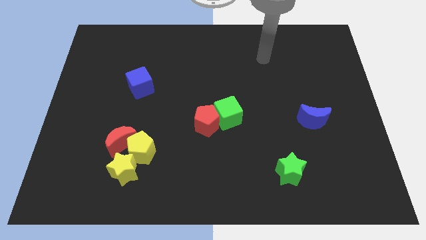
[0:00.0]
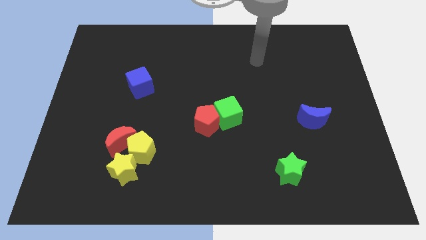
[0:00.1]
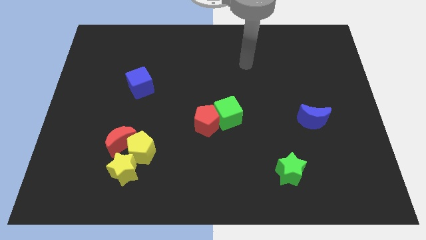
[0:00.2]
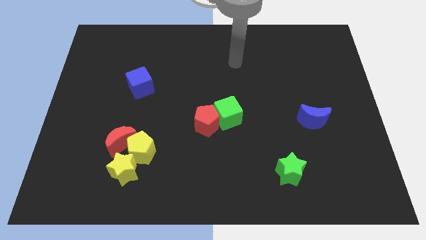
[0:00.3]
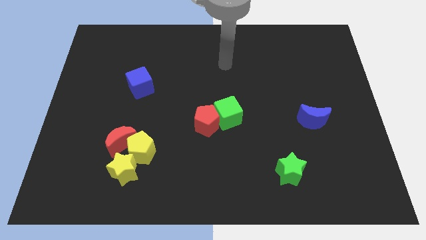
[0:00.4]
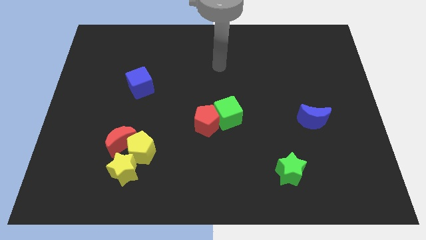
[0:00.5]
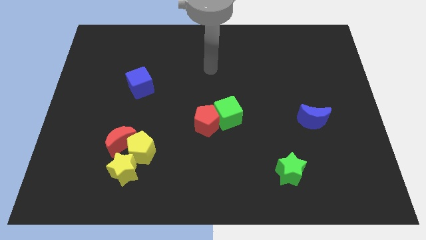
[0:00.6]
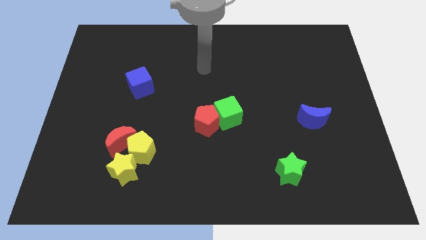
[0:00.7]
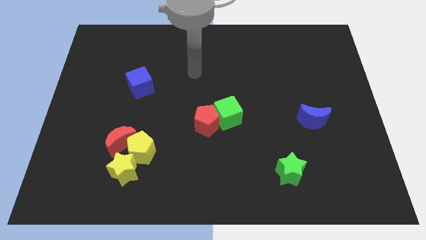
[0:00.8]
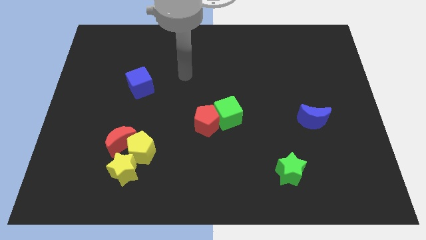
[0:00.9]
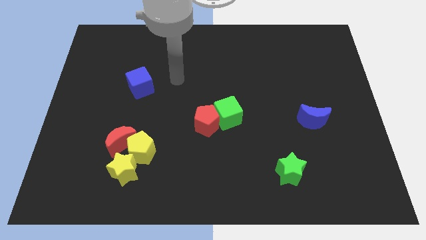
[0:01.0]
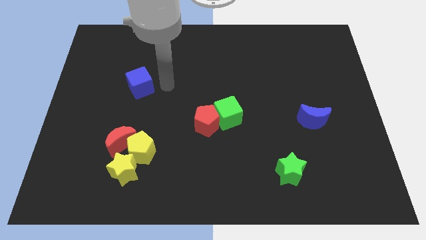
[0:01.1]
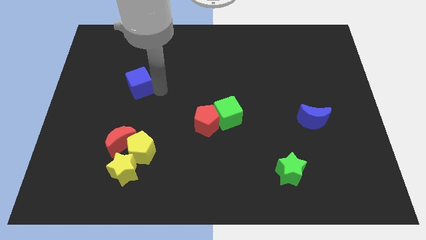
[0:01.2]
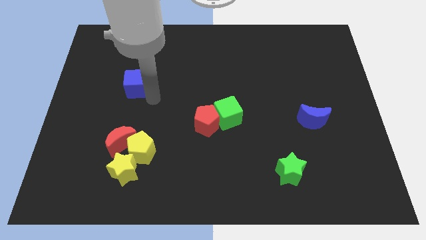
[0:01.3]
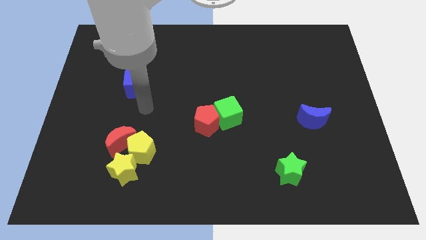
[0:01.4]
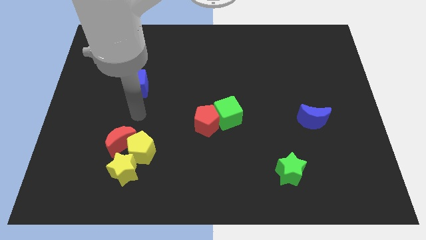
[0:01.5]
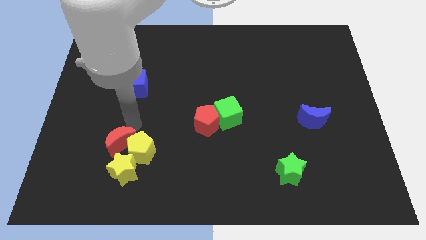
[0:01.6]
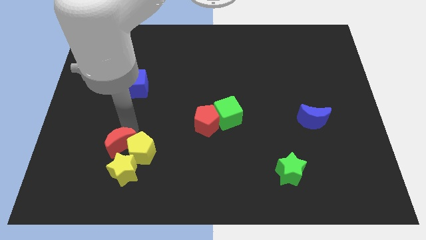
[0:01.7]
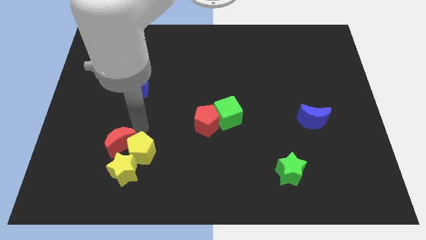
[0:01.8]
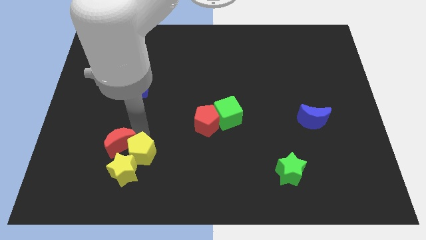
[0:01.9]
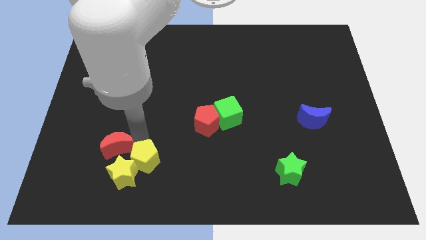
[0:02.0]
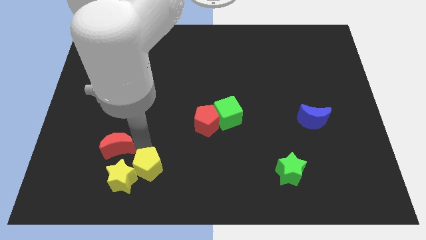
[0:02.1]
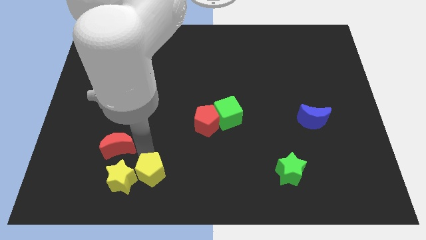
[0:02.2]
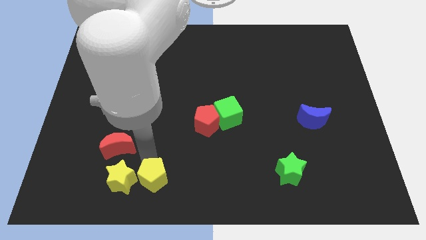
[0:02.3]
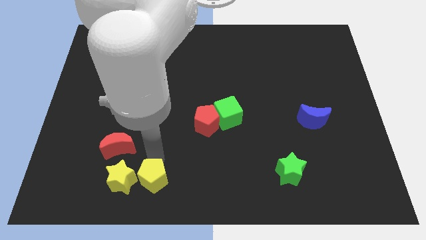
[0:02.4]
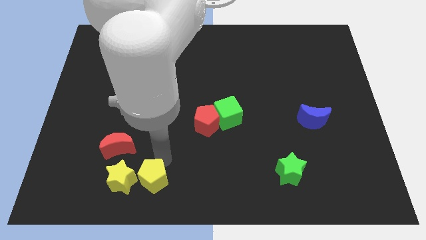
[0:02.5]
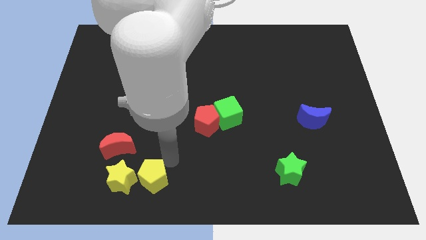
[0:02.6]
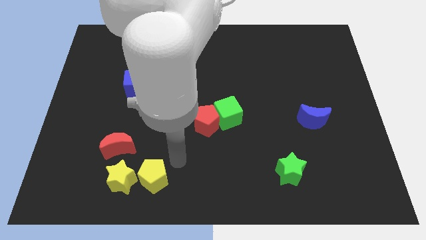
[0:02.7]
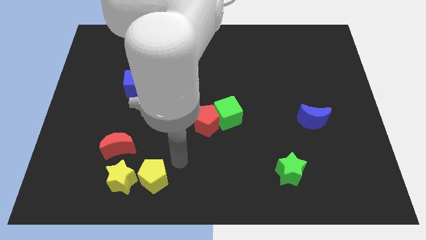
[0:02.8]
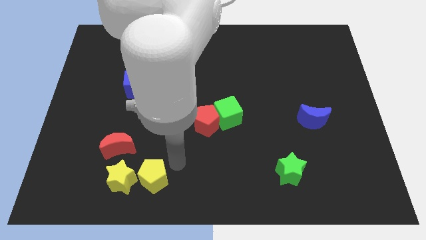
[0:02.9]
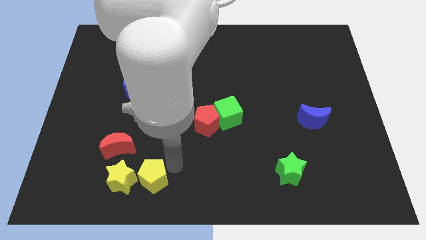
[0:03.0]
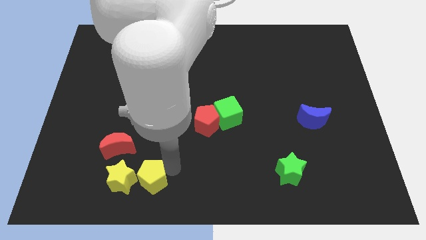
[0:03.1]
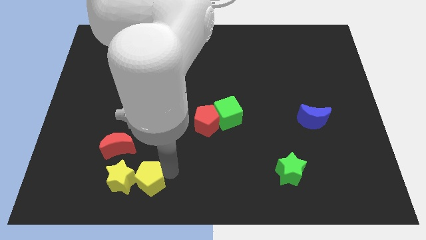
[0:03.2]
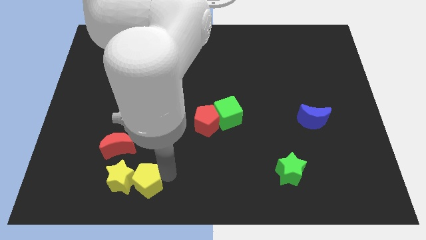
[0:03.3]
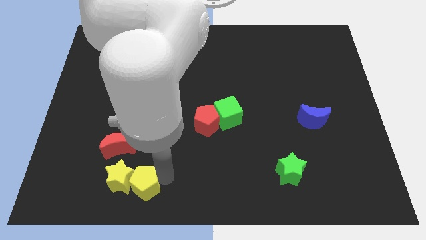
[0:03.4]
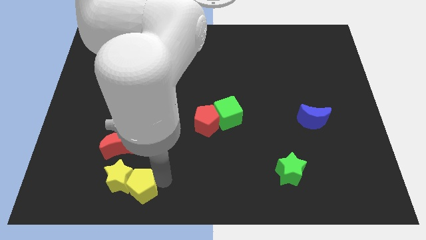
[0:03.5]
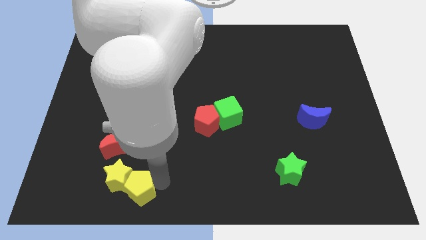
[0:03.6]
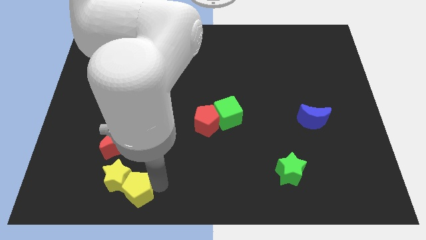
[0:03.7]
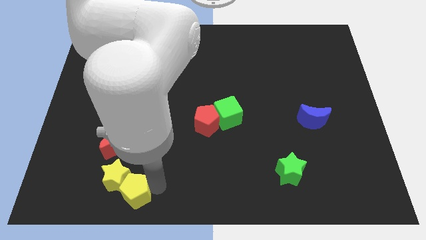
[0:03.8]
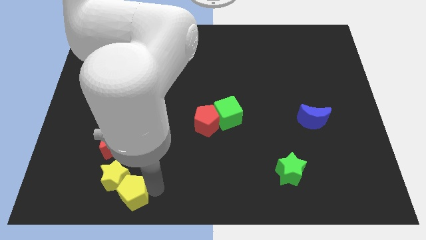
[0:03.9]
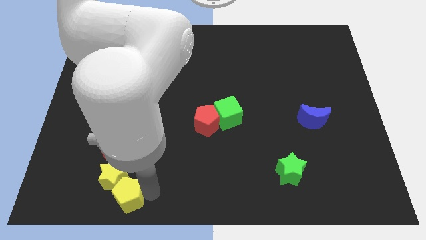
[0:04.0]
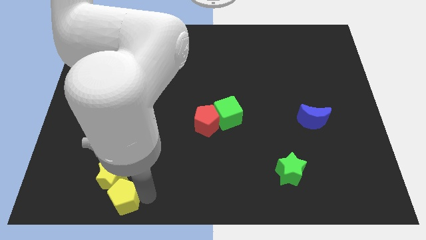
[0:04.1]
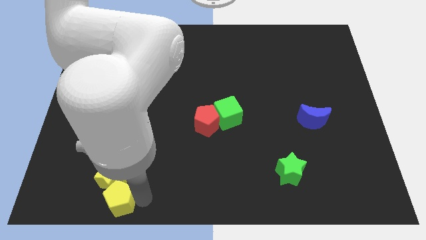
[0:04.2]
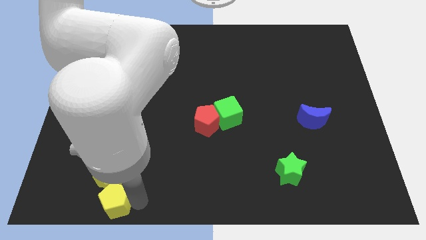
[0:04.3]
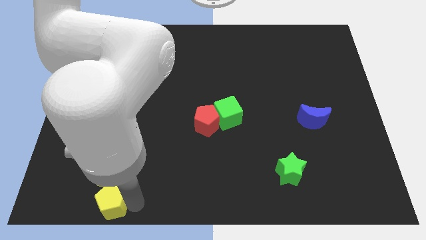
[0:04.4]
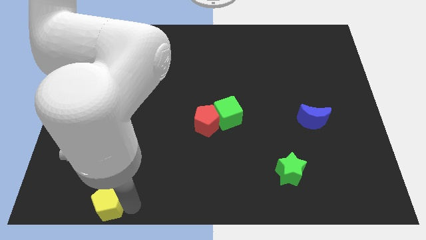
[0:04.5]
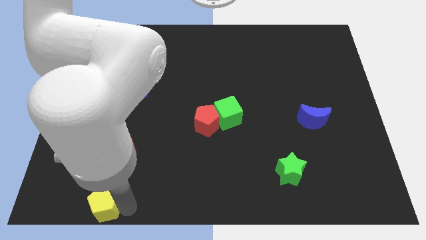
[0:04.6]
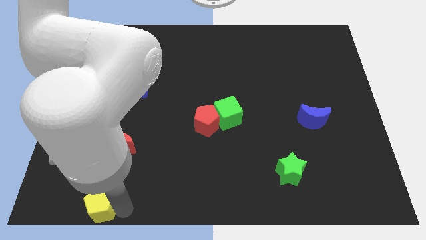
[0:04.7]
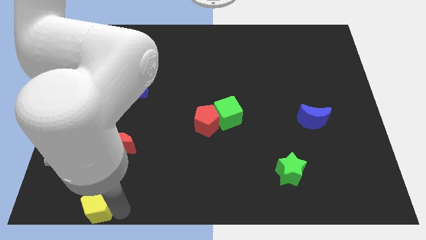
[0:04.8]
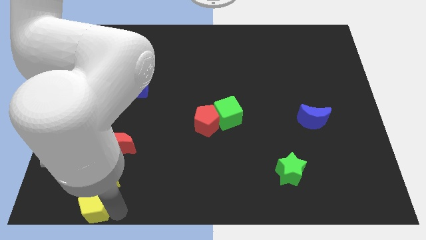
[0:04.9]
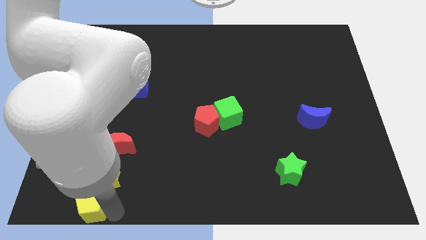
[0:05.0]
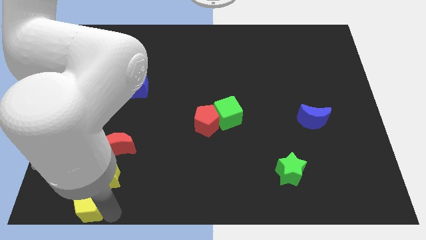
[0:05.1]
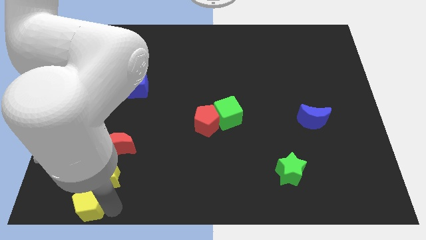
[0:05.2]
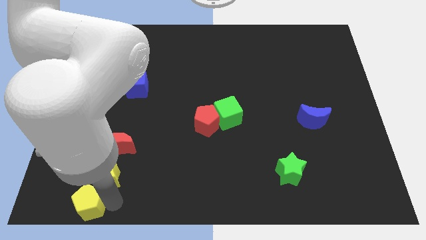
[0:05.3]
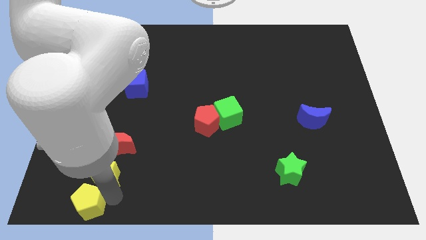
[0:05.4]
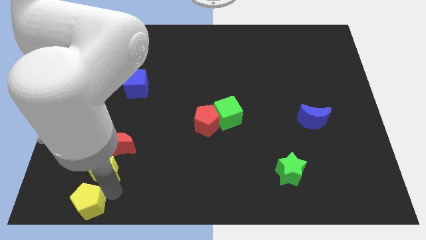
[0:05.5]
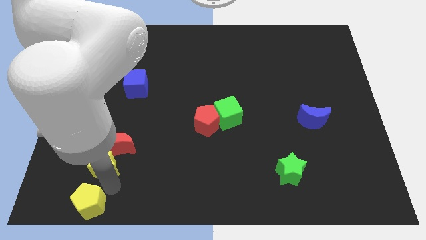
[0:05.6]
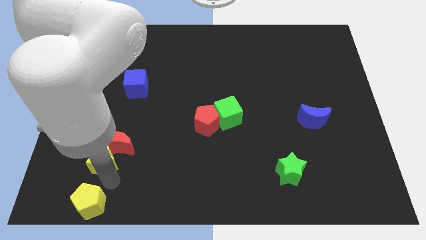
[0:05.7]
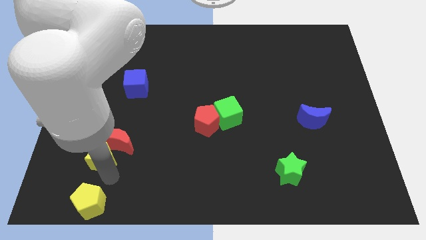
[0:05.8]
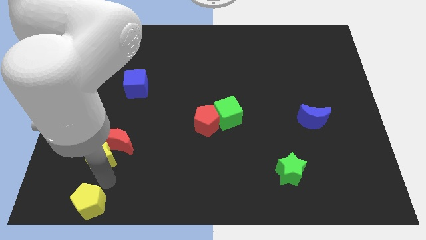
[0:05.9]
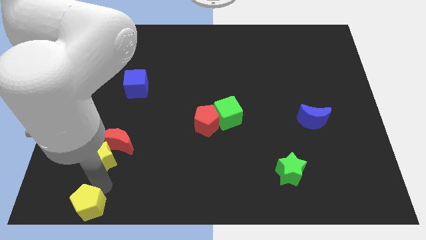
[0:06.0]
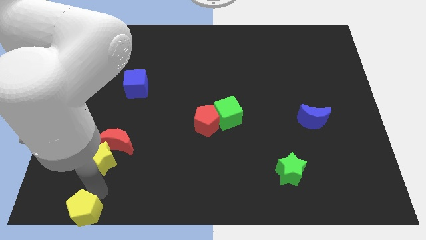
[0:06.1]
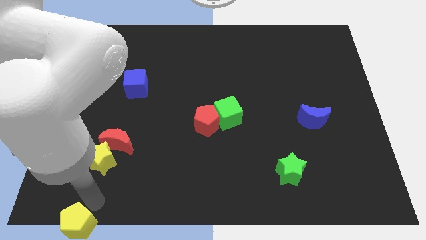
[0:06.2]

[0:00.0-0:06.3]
slide the yellow pentagon to the bottom left of the board
